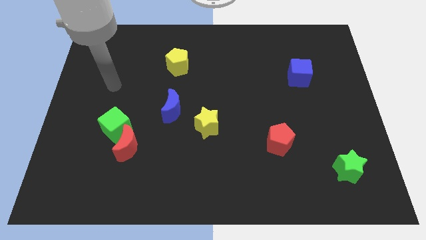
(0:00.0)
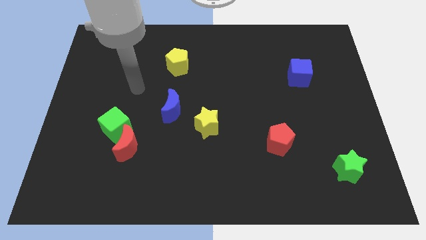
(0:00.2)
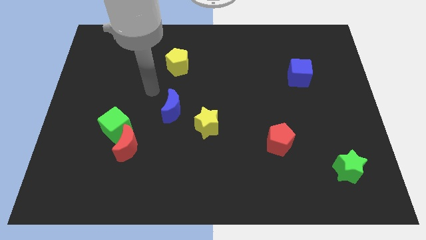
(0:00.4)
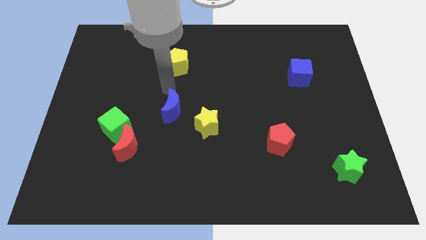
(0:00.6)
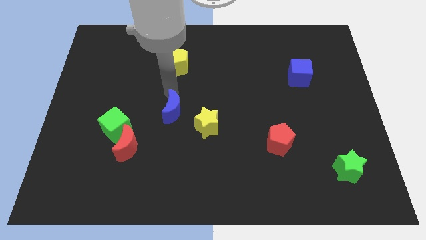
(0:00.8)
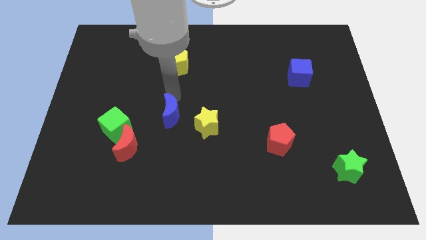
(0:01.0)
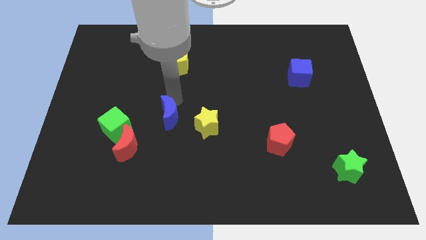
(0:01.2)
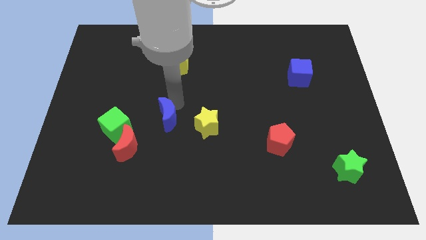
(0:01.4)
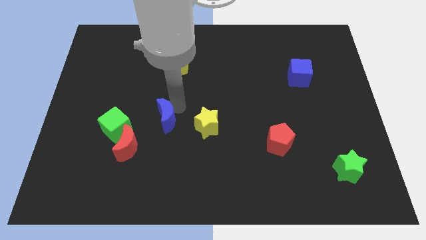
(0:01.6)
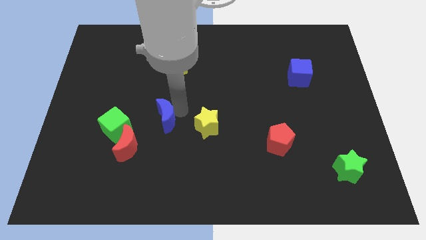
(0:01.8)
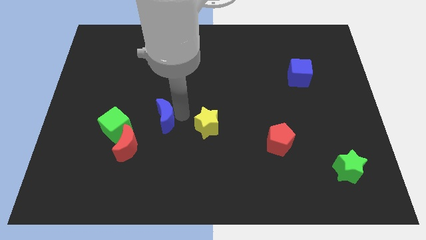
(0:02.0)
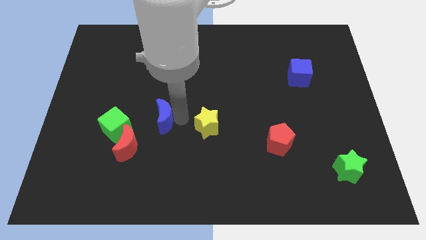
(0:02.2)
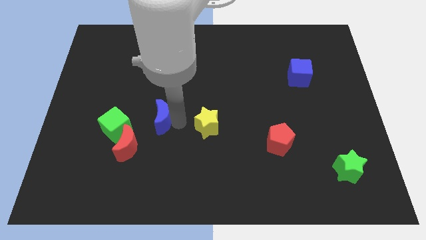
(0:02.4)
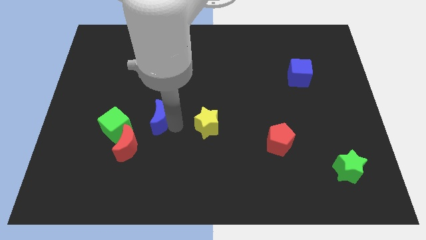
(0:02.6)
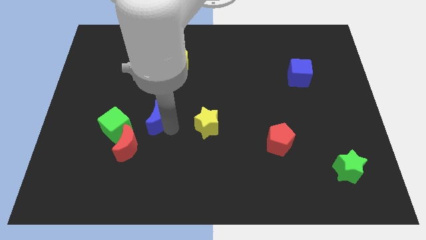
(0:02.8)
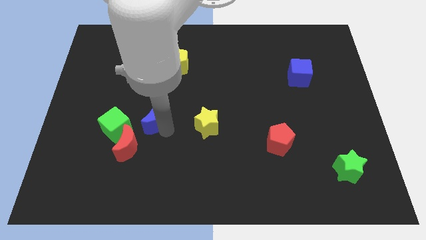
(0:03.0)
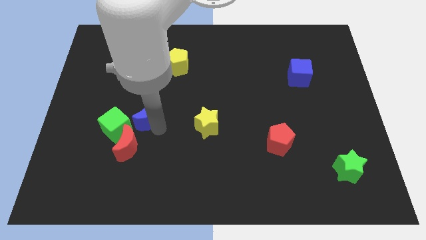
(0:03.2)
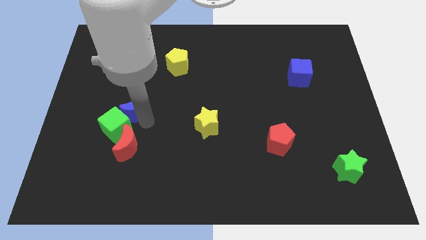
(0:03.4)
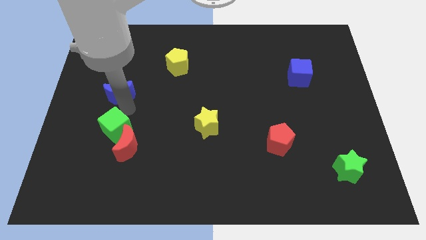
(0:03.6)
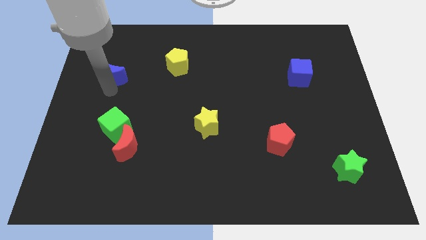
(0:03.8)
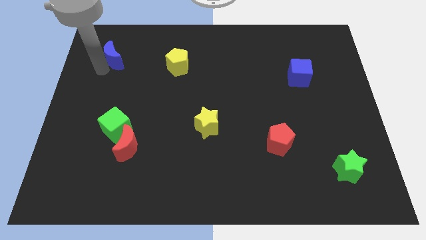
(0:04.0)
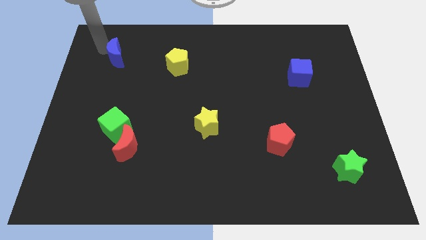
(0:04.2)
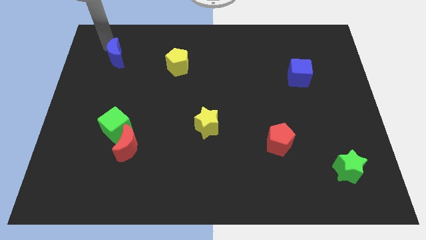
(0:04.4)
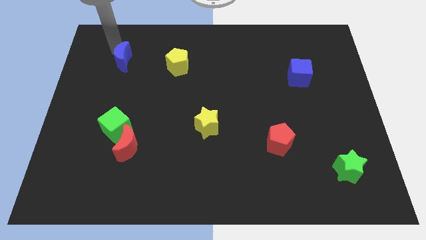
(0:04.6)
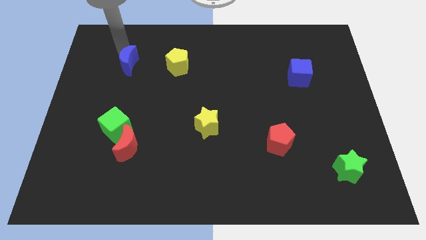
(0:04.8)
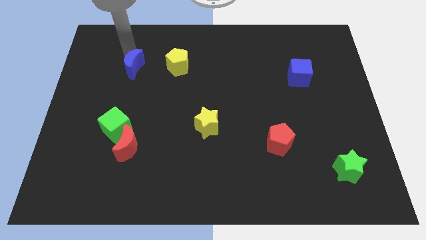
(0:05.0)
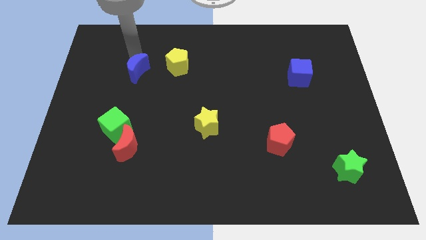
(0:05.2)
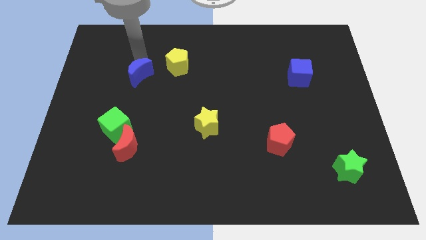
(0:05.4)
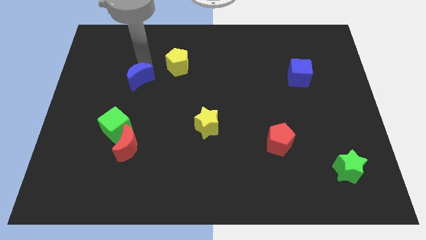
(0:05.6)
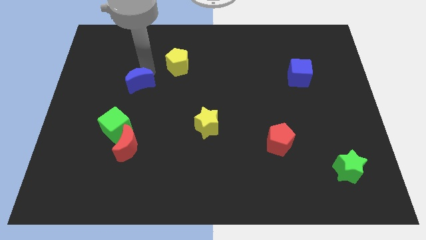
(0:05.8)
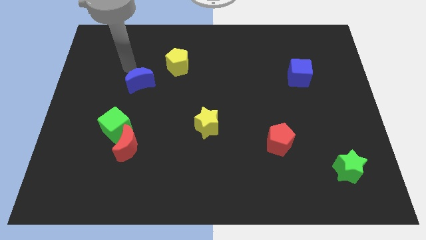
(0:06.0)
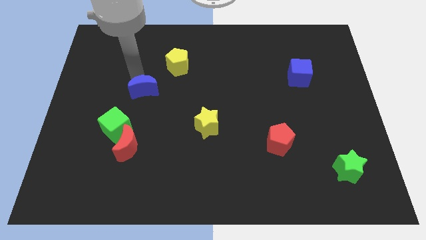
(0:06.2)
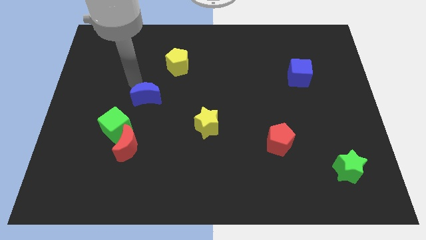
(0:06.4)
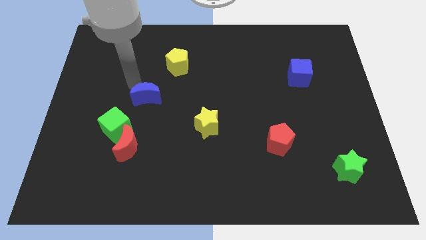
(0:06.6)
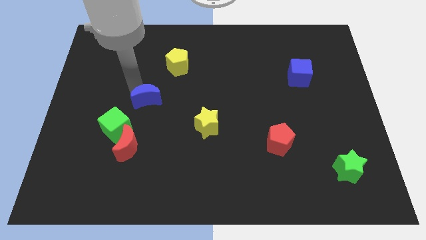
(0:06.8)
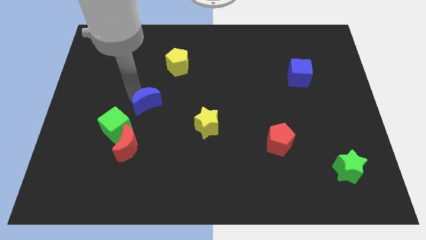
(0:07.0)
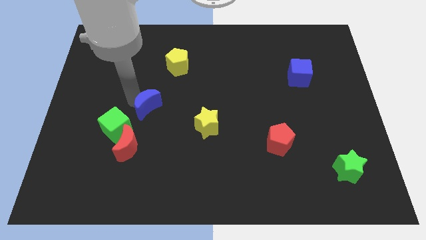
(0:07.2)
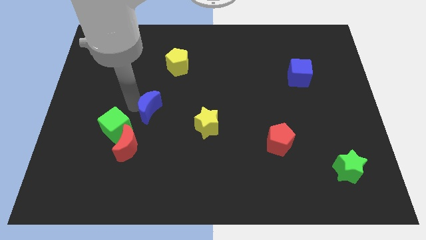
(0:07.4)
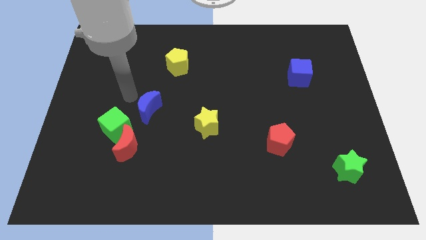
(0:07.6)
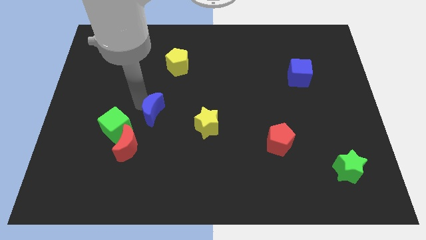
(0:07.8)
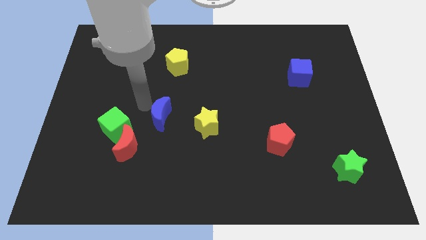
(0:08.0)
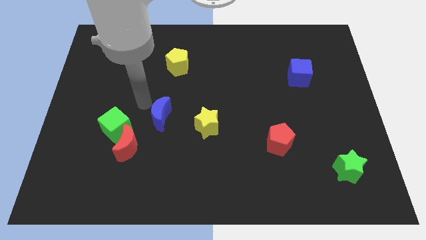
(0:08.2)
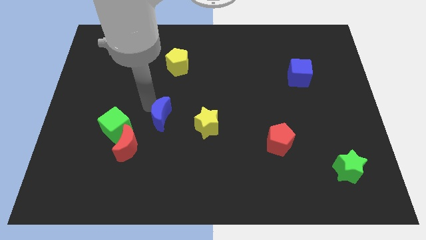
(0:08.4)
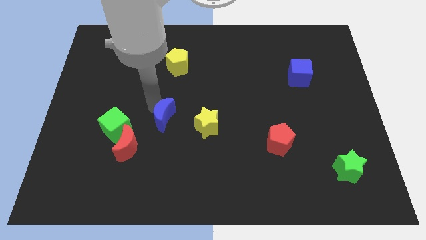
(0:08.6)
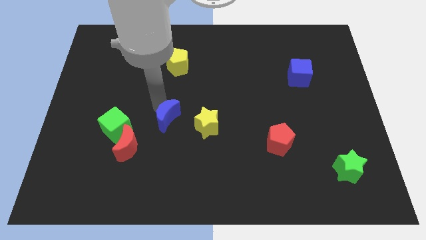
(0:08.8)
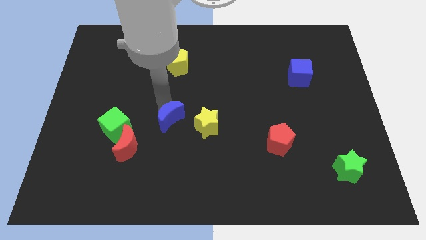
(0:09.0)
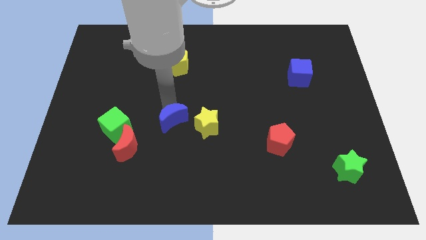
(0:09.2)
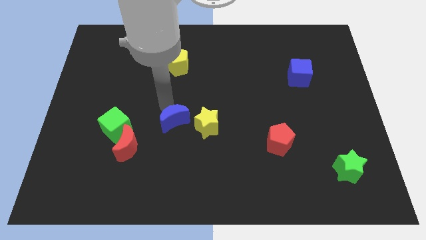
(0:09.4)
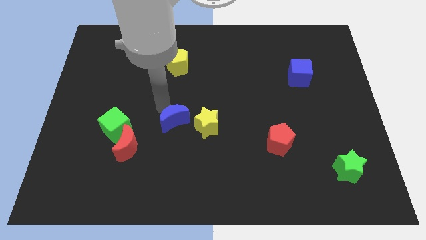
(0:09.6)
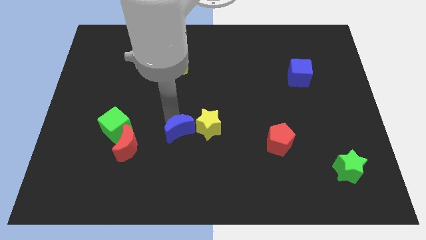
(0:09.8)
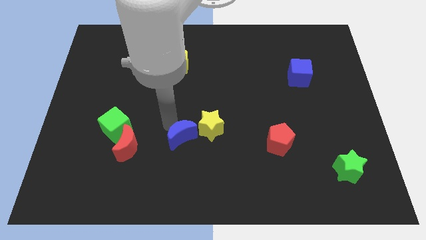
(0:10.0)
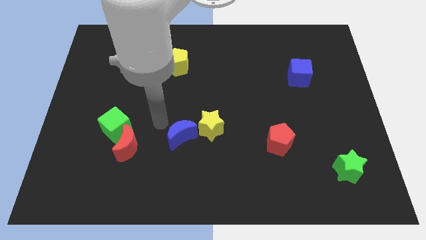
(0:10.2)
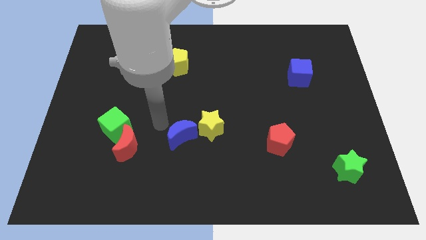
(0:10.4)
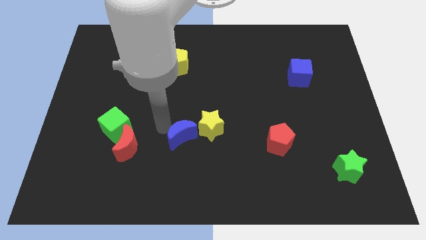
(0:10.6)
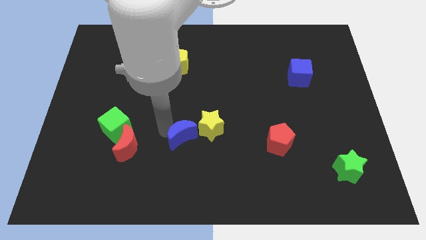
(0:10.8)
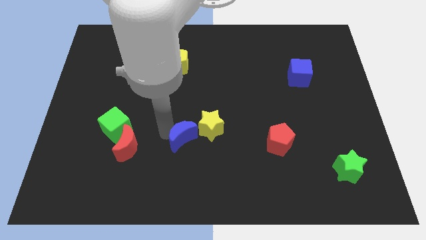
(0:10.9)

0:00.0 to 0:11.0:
slightly move the blue moon diagonally down and right

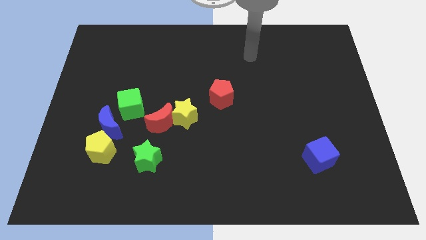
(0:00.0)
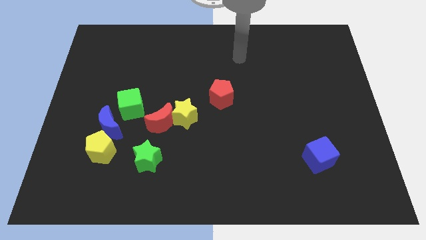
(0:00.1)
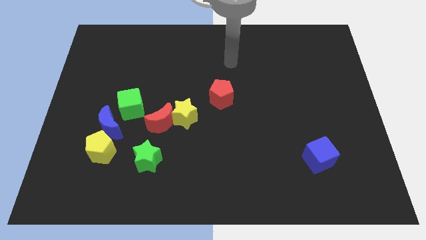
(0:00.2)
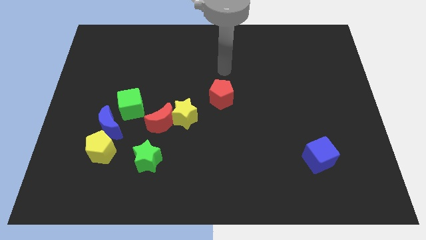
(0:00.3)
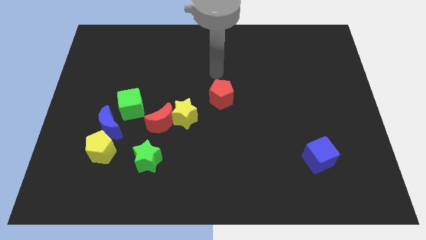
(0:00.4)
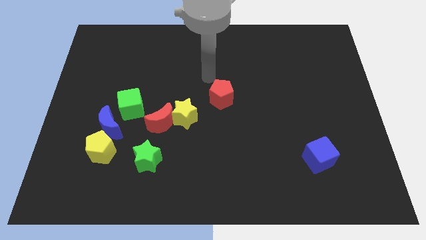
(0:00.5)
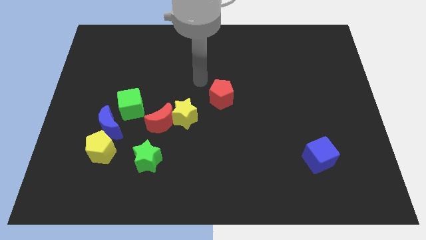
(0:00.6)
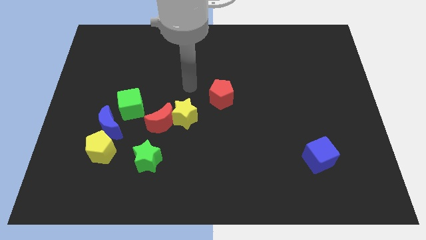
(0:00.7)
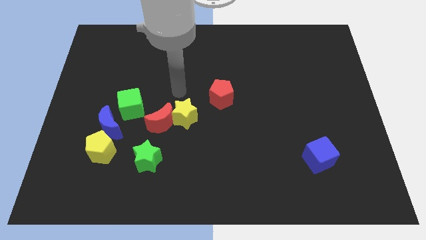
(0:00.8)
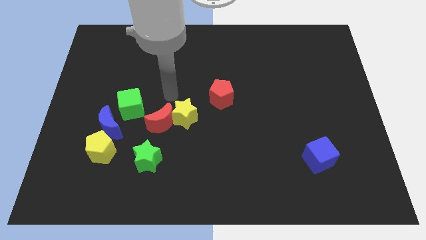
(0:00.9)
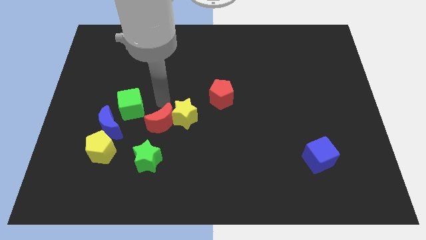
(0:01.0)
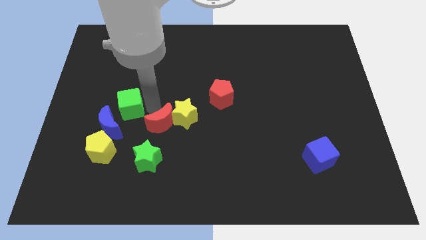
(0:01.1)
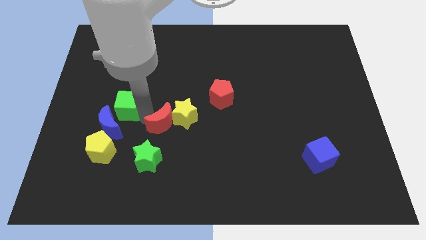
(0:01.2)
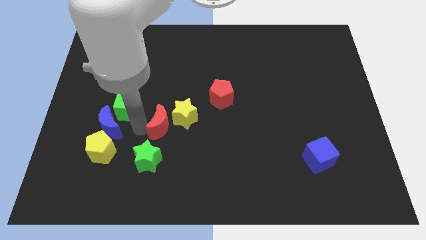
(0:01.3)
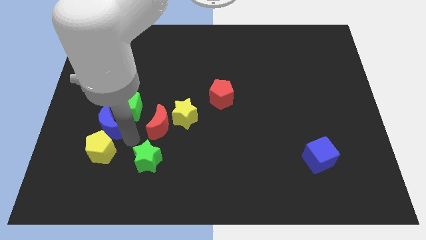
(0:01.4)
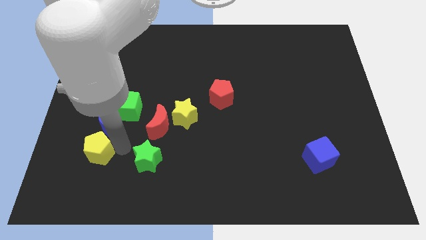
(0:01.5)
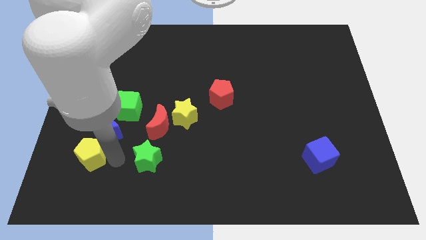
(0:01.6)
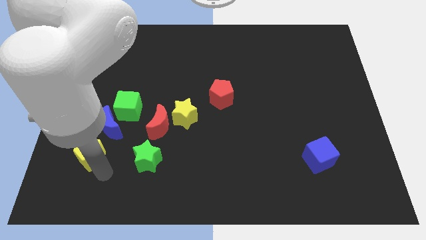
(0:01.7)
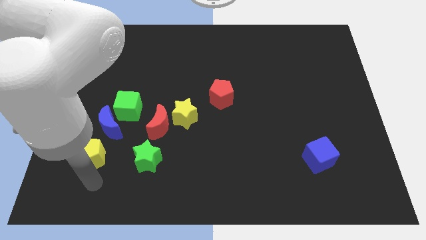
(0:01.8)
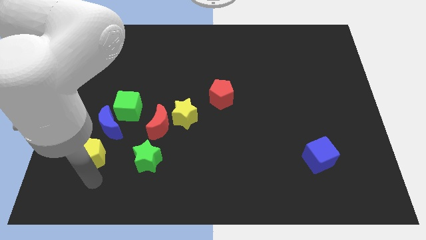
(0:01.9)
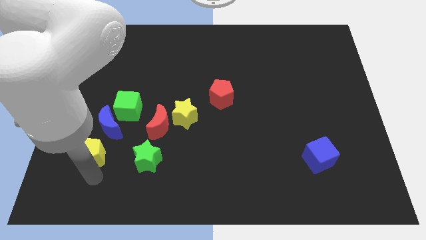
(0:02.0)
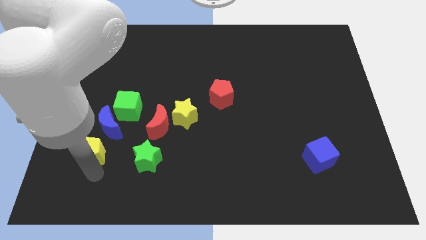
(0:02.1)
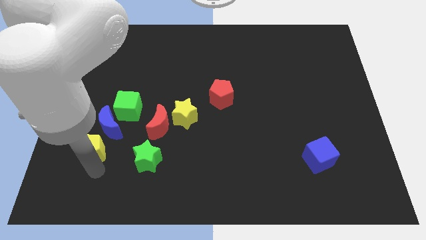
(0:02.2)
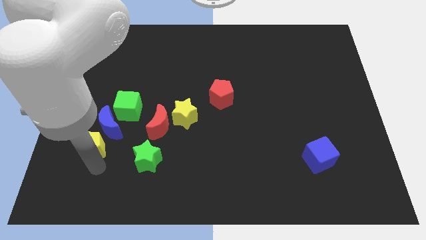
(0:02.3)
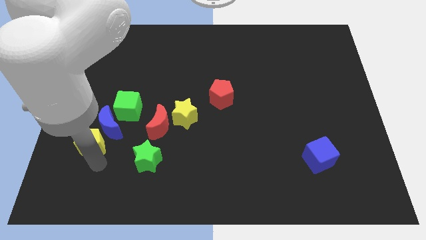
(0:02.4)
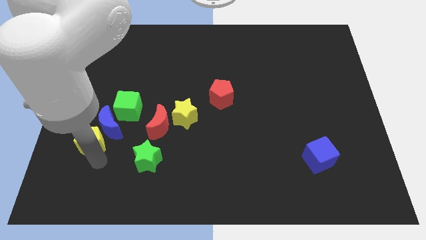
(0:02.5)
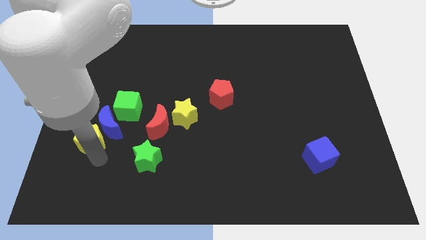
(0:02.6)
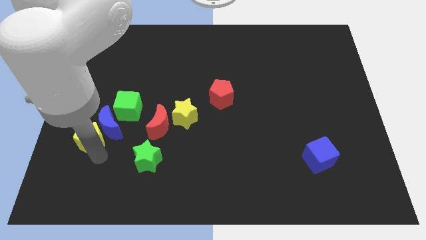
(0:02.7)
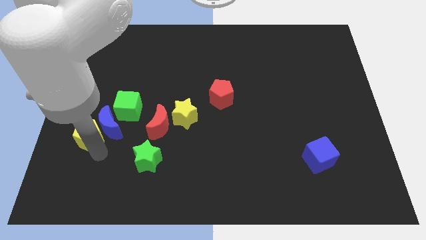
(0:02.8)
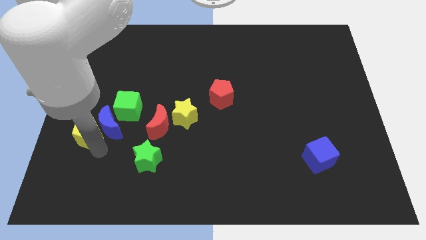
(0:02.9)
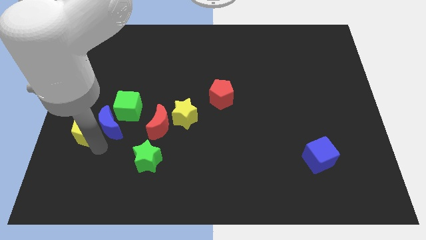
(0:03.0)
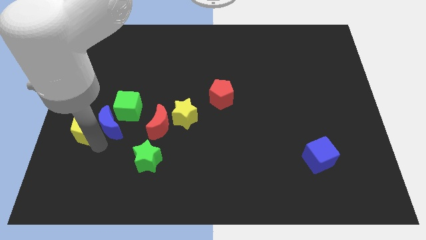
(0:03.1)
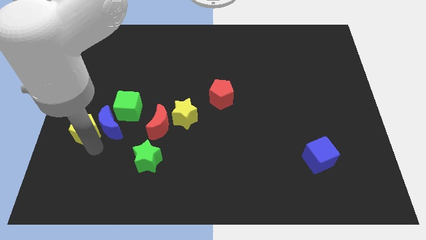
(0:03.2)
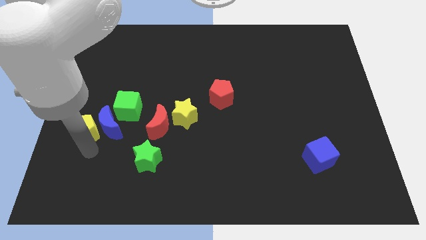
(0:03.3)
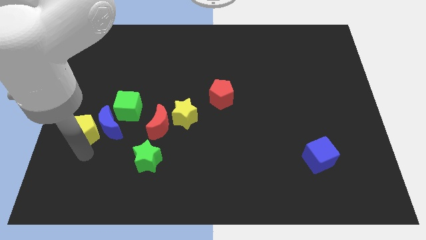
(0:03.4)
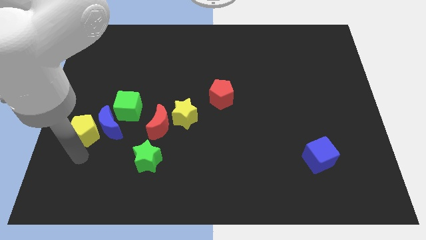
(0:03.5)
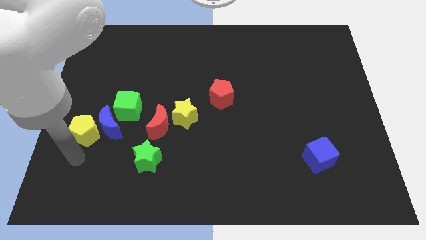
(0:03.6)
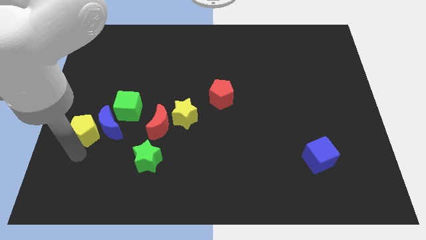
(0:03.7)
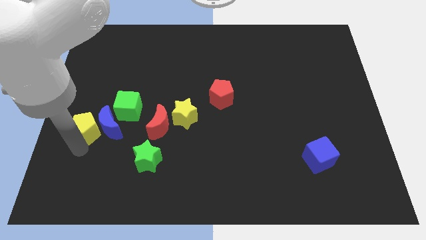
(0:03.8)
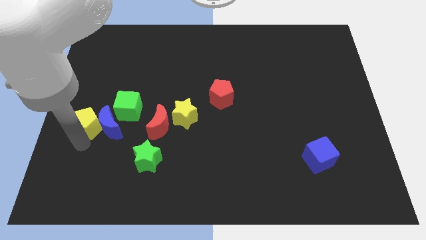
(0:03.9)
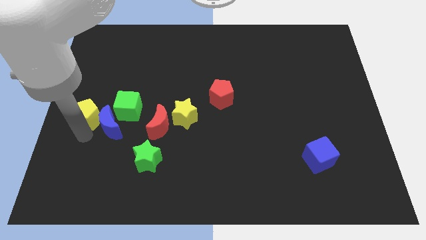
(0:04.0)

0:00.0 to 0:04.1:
push the yellow pentagon a little bit upwards
